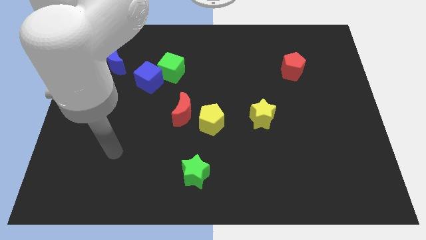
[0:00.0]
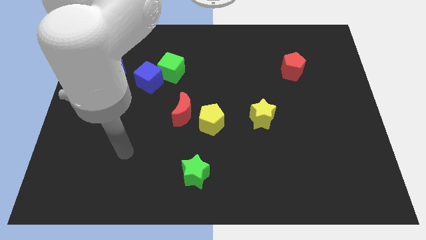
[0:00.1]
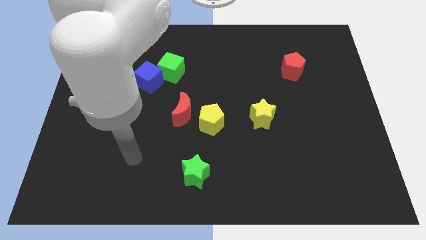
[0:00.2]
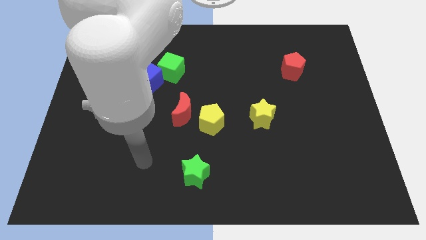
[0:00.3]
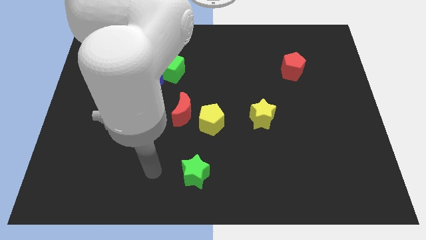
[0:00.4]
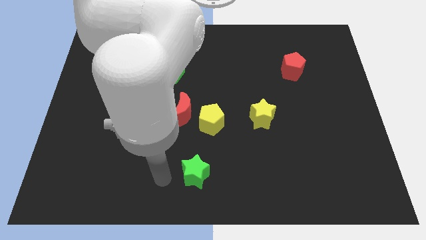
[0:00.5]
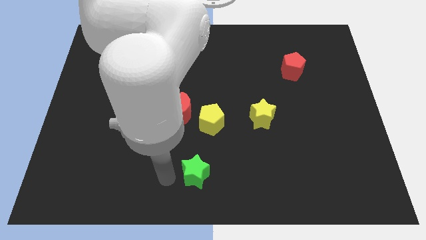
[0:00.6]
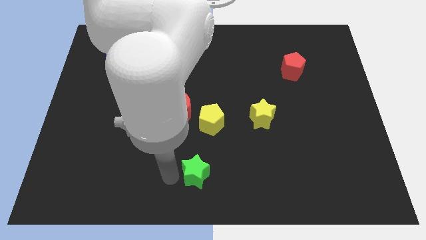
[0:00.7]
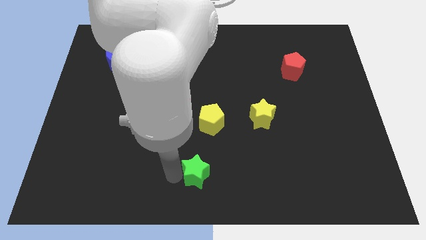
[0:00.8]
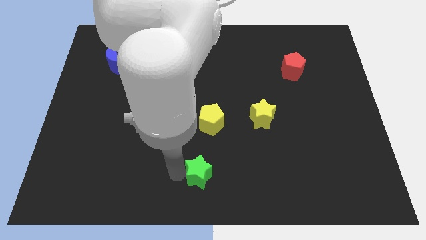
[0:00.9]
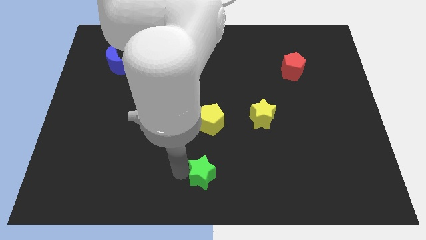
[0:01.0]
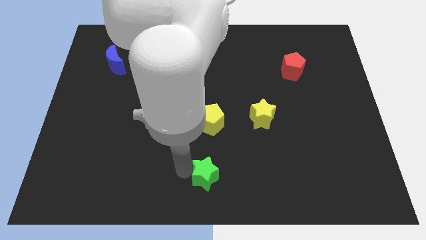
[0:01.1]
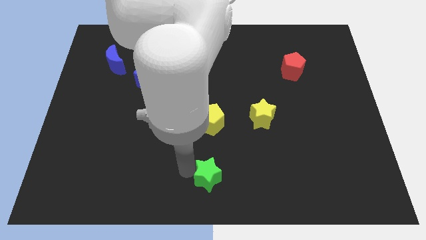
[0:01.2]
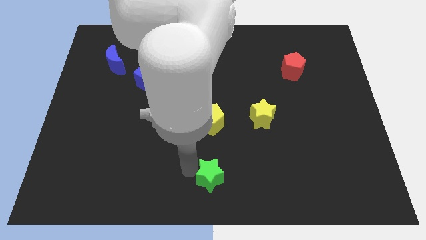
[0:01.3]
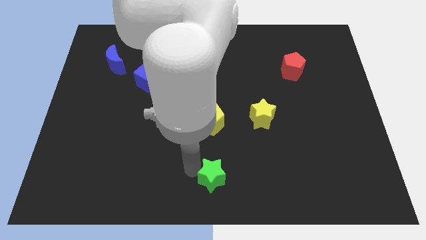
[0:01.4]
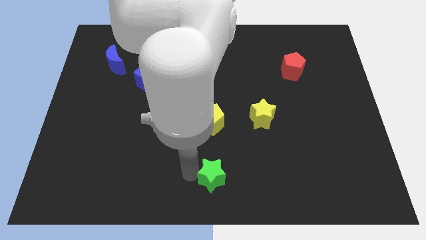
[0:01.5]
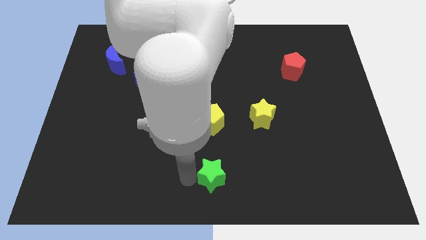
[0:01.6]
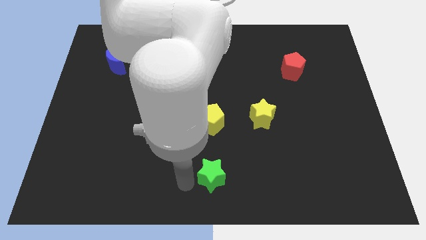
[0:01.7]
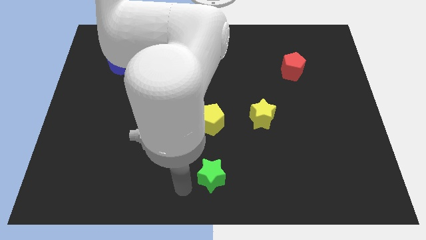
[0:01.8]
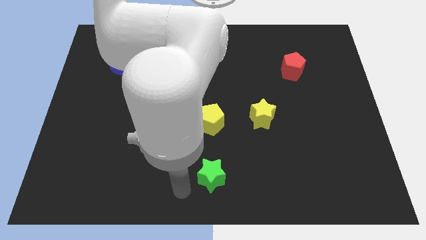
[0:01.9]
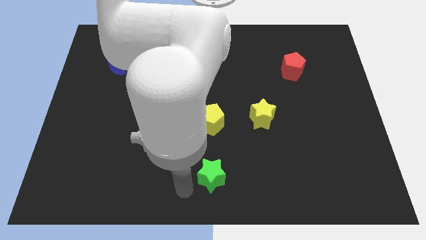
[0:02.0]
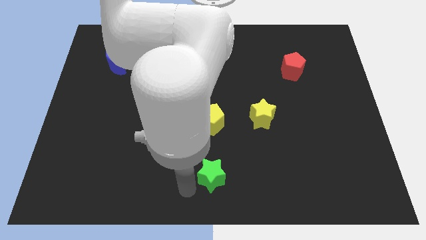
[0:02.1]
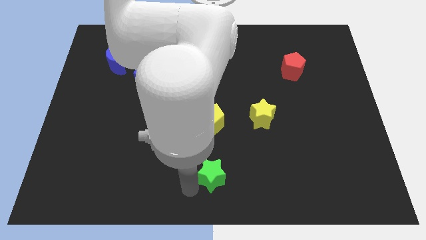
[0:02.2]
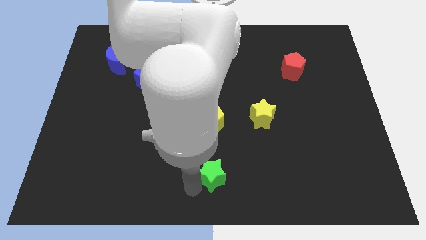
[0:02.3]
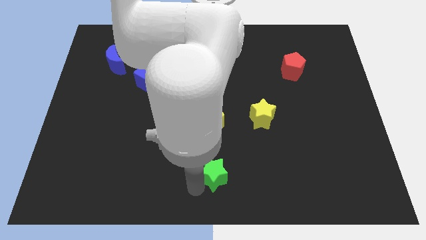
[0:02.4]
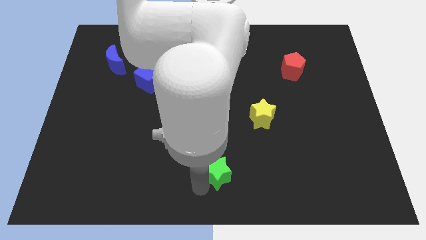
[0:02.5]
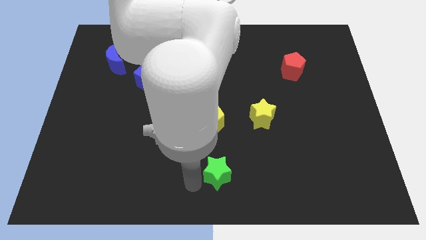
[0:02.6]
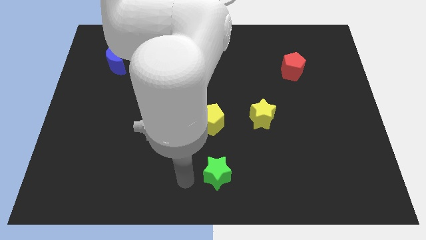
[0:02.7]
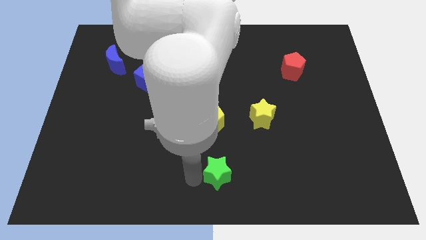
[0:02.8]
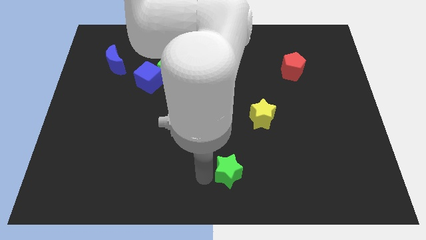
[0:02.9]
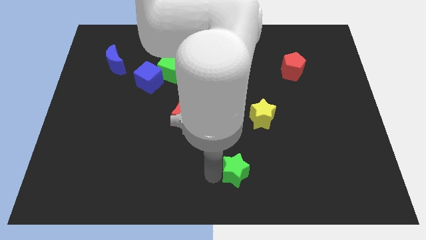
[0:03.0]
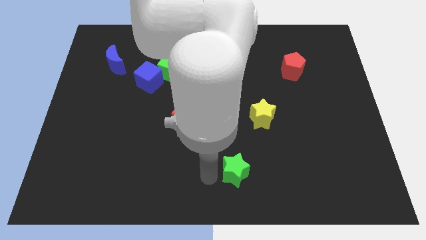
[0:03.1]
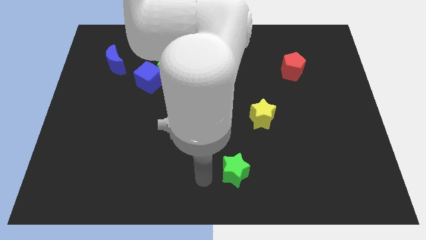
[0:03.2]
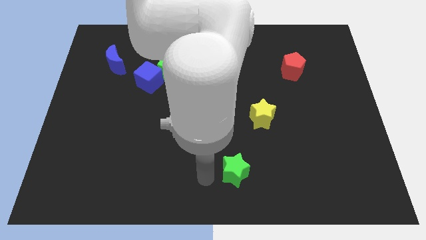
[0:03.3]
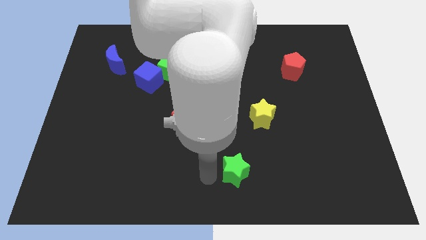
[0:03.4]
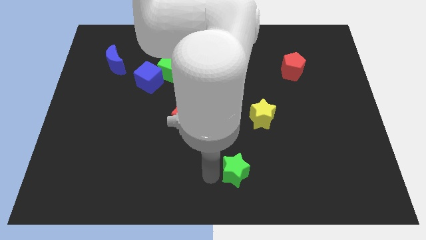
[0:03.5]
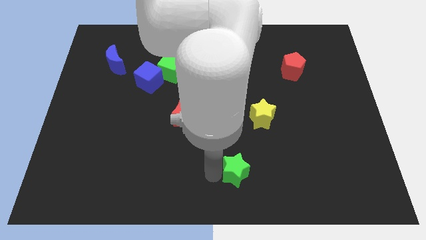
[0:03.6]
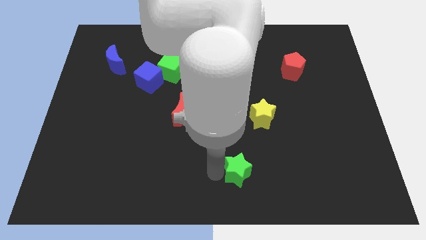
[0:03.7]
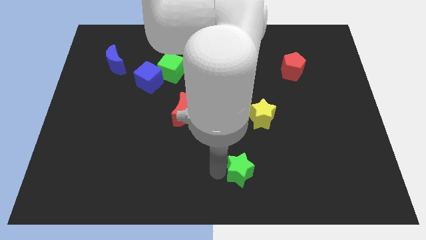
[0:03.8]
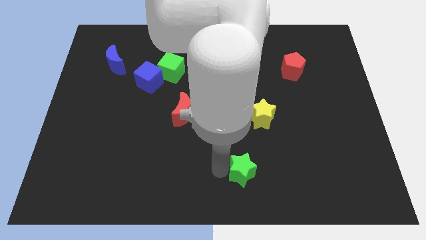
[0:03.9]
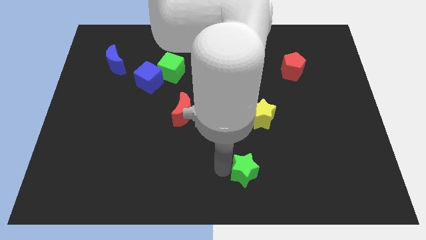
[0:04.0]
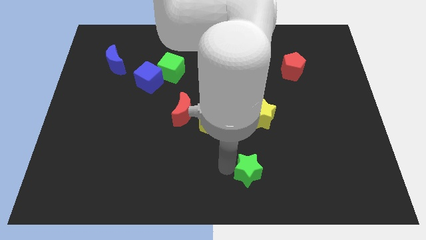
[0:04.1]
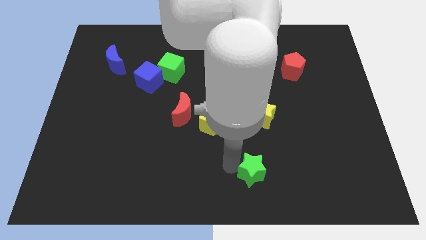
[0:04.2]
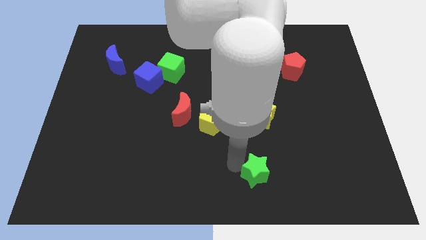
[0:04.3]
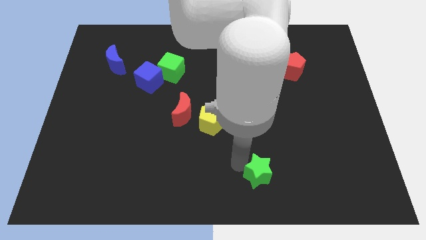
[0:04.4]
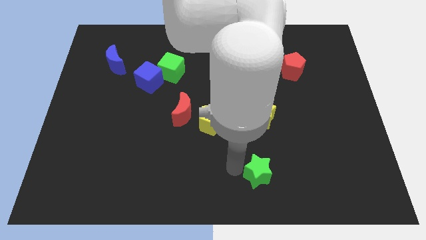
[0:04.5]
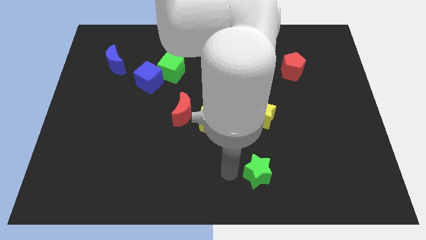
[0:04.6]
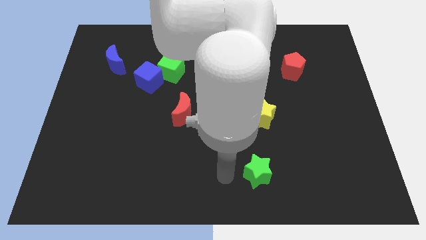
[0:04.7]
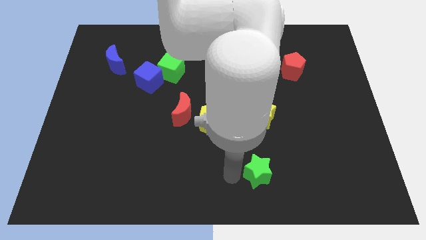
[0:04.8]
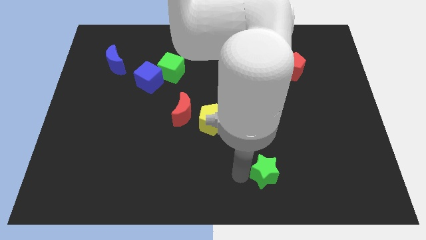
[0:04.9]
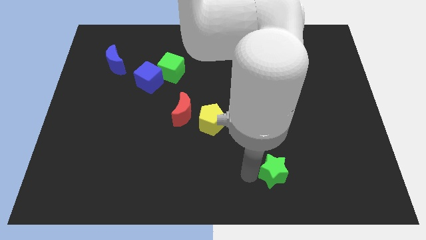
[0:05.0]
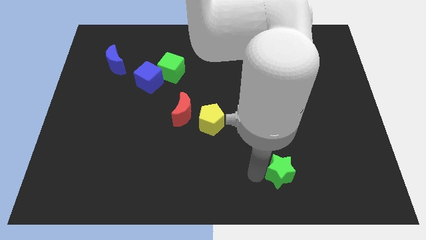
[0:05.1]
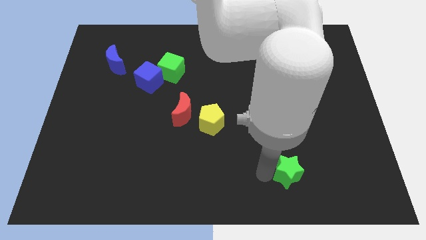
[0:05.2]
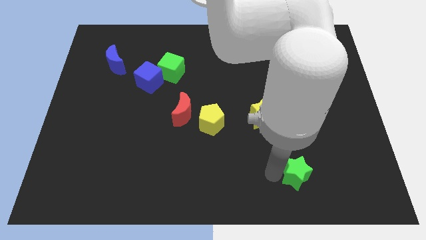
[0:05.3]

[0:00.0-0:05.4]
push the green star to the right

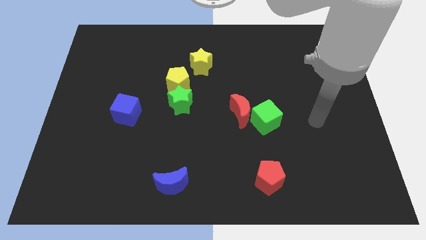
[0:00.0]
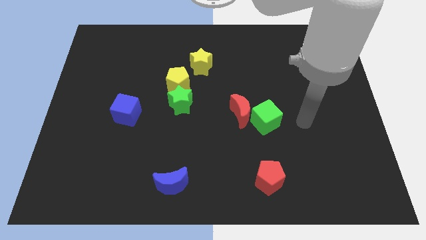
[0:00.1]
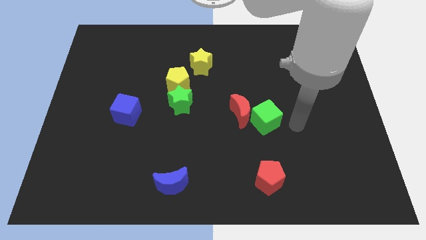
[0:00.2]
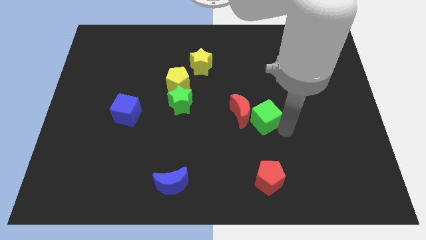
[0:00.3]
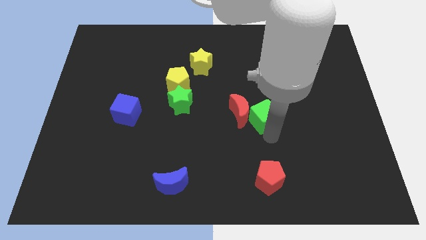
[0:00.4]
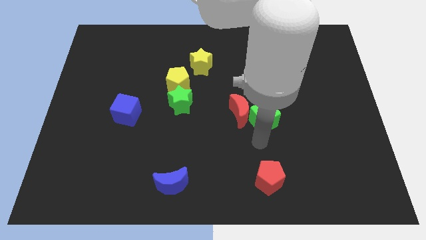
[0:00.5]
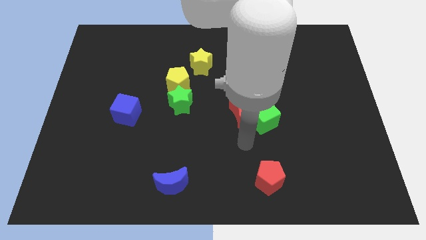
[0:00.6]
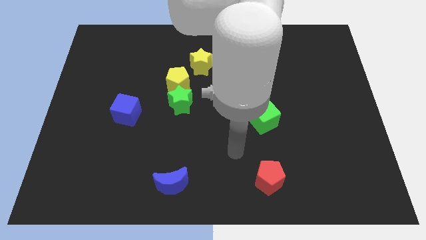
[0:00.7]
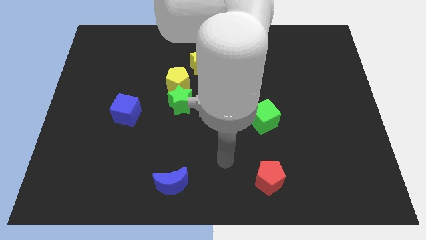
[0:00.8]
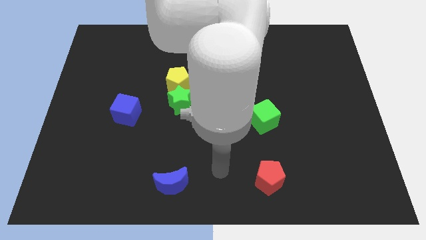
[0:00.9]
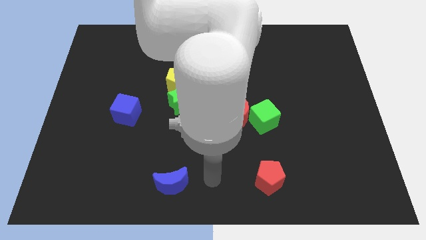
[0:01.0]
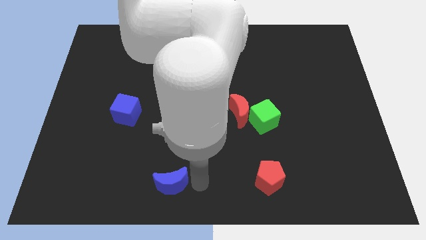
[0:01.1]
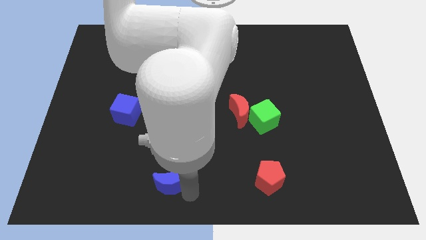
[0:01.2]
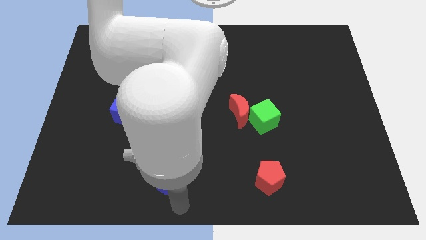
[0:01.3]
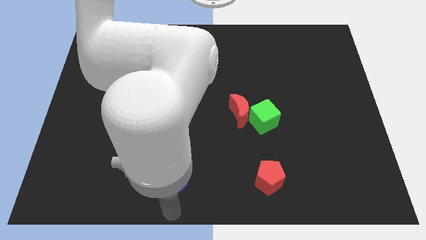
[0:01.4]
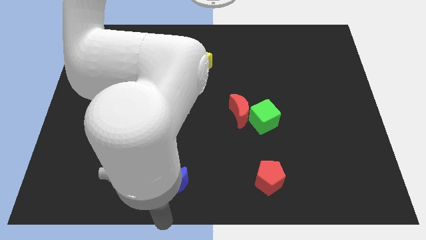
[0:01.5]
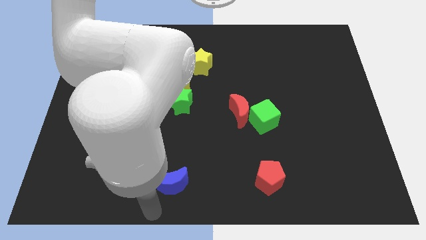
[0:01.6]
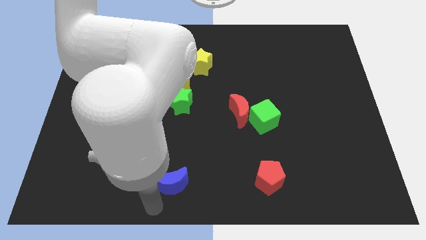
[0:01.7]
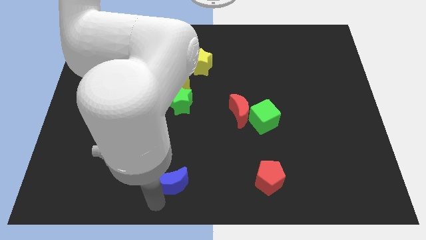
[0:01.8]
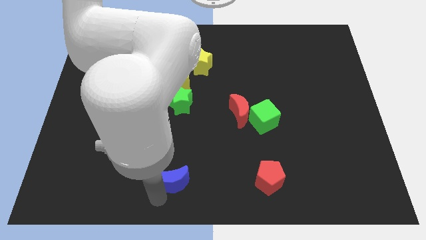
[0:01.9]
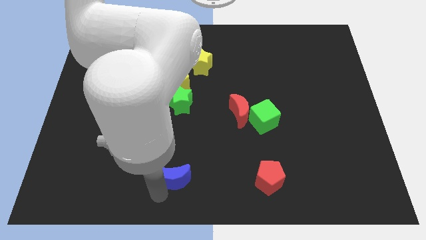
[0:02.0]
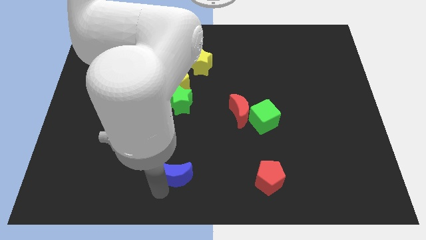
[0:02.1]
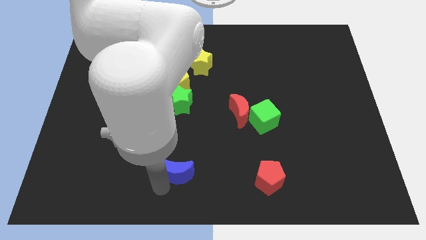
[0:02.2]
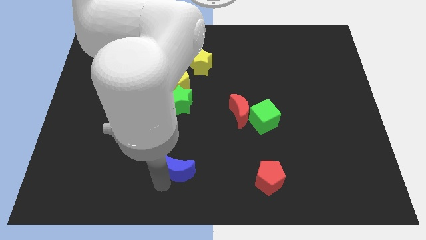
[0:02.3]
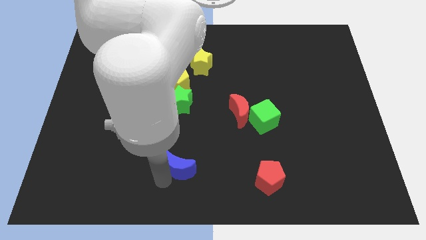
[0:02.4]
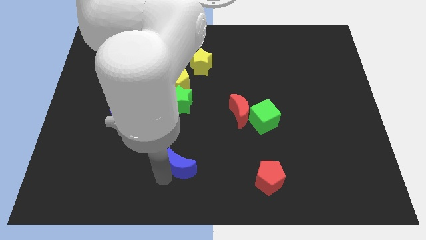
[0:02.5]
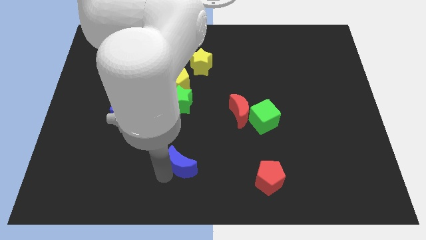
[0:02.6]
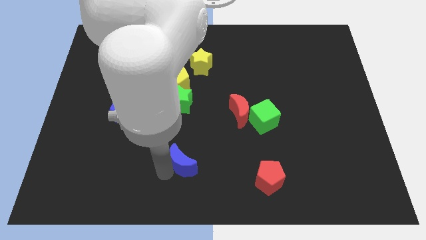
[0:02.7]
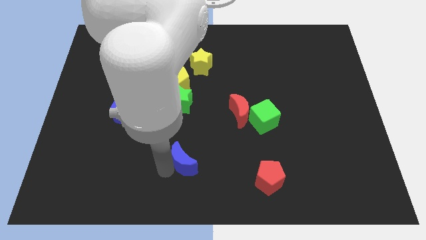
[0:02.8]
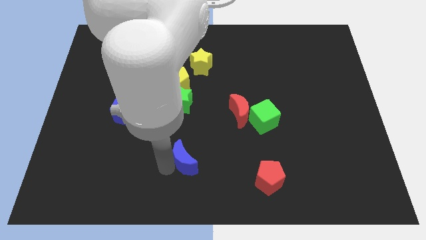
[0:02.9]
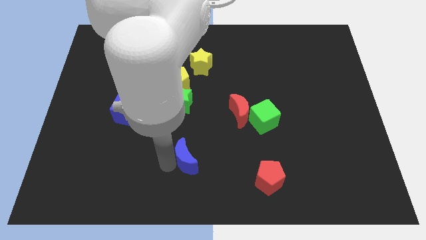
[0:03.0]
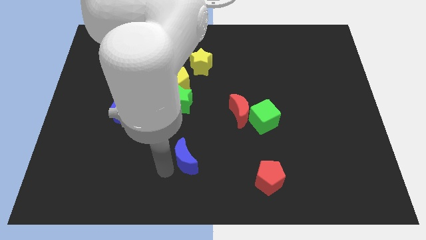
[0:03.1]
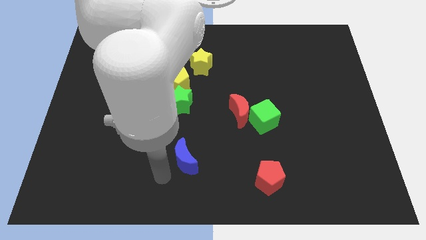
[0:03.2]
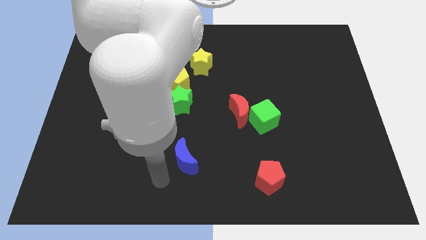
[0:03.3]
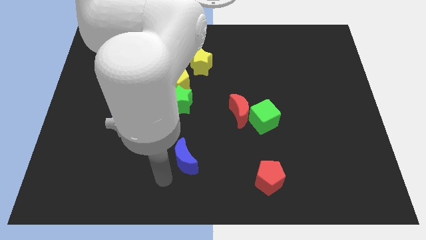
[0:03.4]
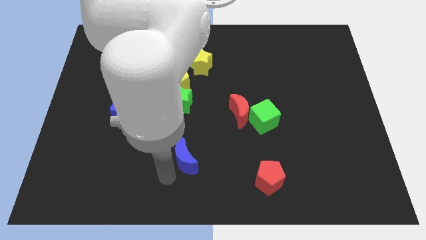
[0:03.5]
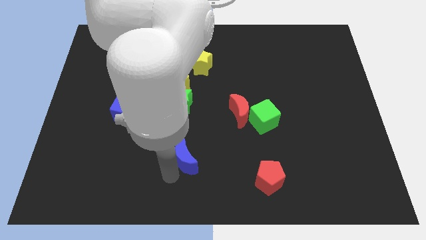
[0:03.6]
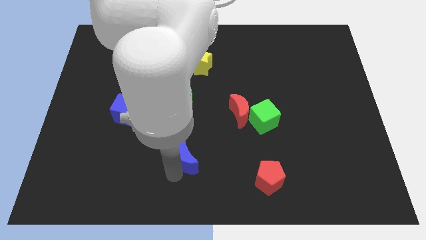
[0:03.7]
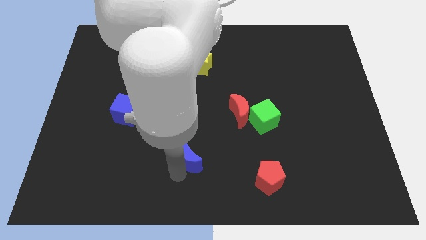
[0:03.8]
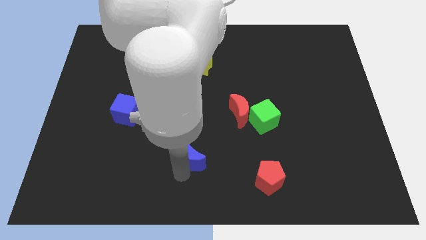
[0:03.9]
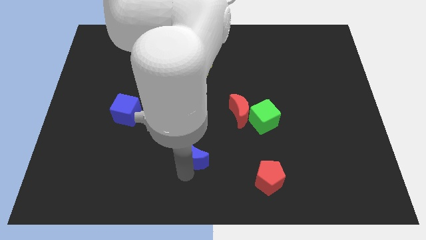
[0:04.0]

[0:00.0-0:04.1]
slightly push the blue moon up and right
